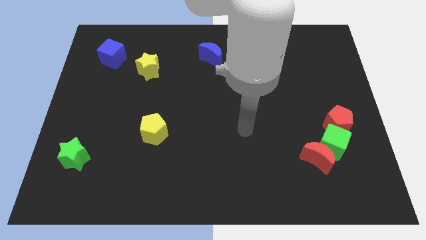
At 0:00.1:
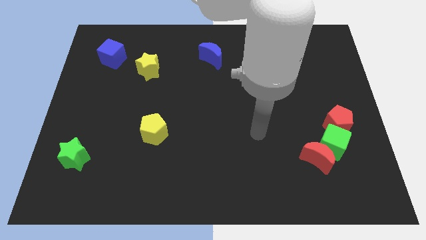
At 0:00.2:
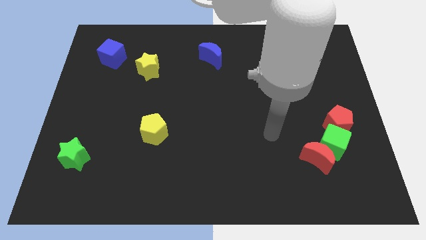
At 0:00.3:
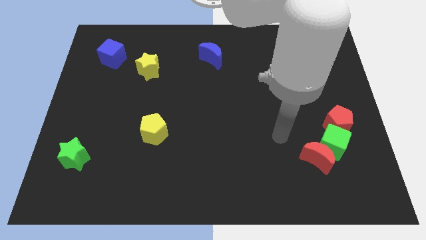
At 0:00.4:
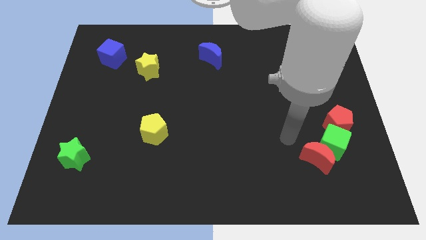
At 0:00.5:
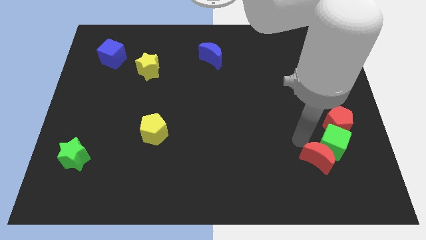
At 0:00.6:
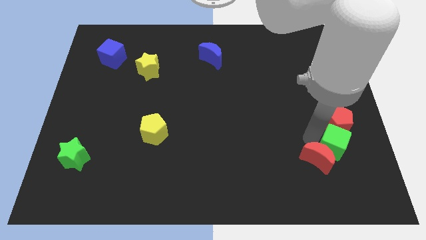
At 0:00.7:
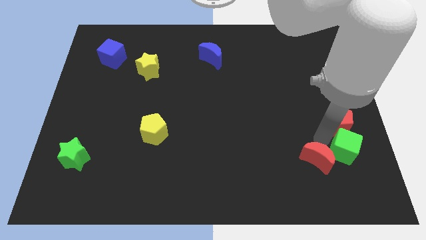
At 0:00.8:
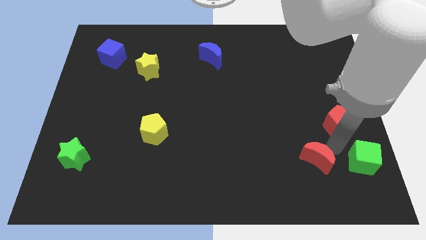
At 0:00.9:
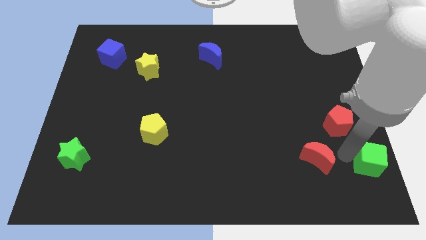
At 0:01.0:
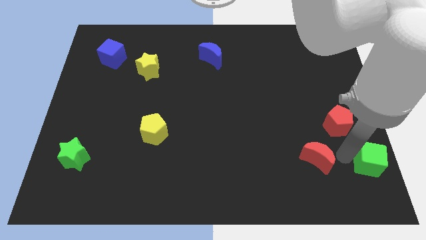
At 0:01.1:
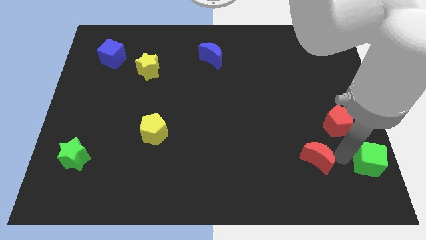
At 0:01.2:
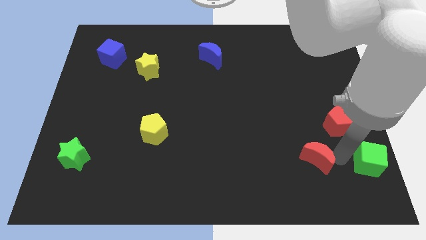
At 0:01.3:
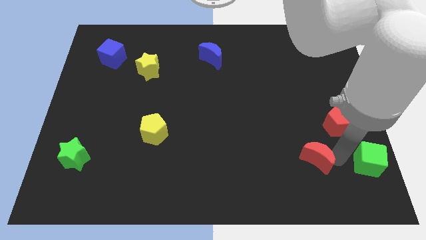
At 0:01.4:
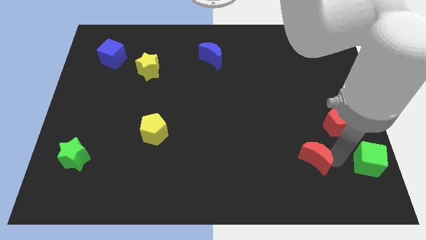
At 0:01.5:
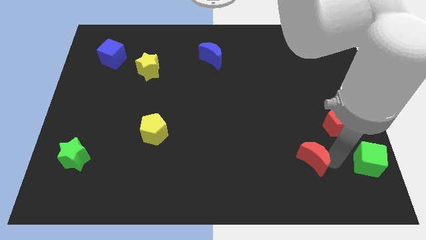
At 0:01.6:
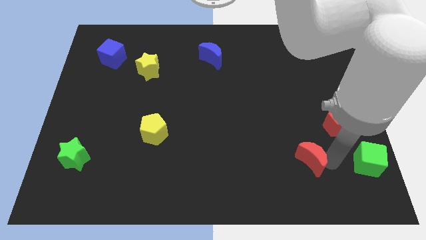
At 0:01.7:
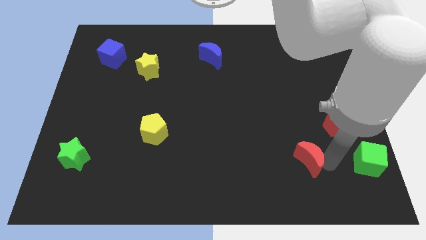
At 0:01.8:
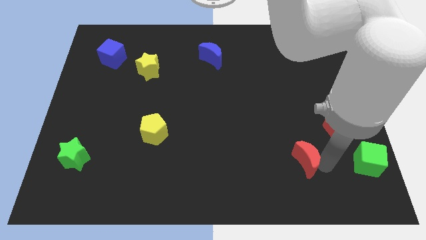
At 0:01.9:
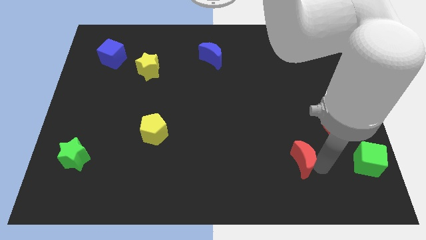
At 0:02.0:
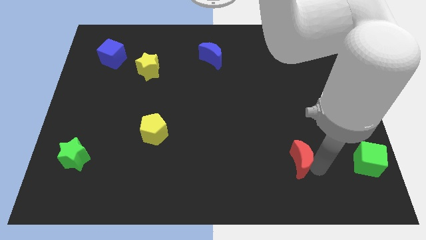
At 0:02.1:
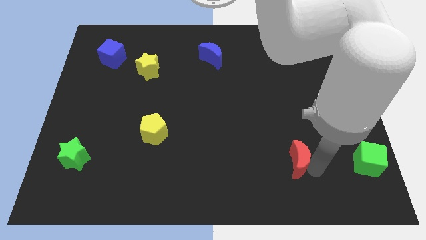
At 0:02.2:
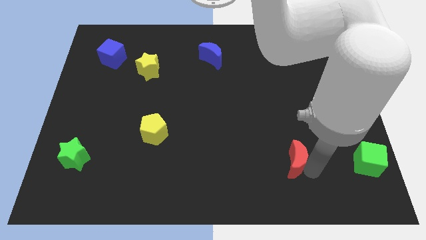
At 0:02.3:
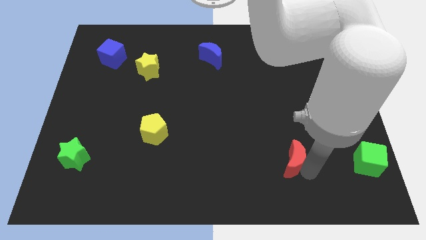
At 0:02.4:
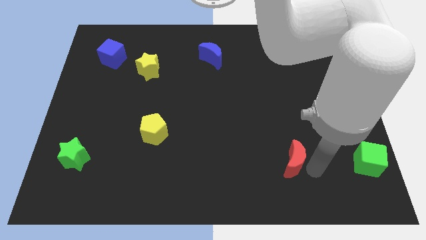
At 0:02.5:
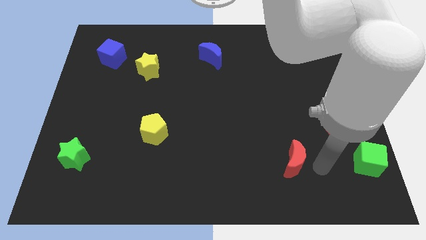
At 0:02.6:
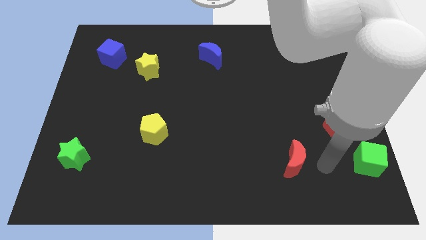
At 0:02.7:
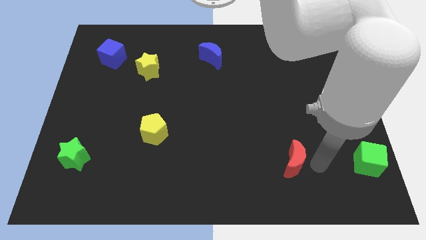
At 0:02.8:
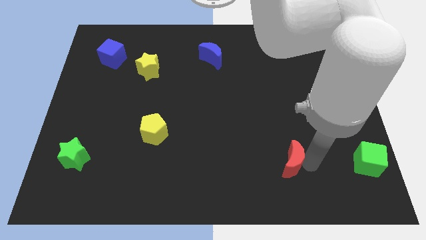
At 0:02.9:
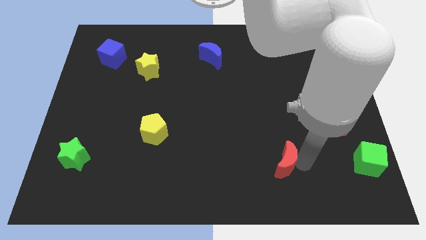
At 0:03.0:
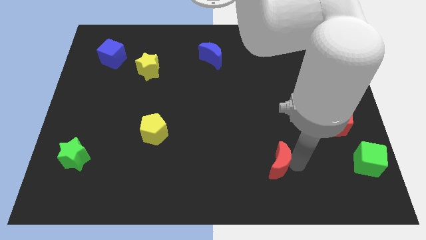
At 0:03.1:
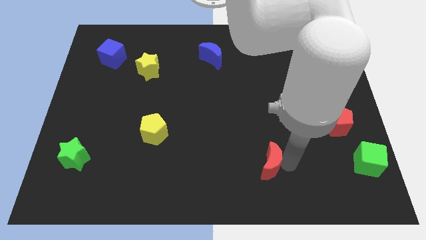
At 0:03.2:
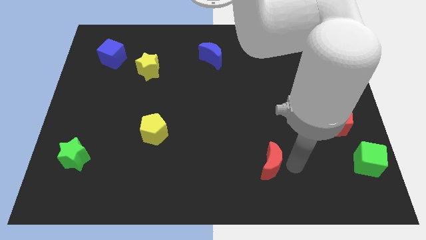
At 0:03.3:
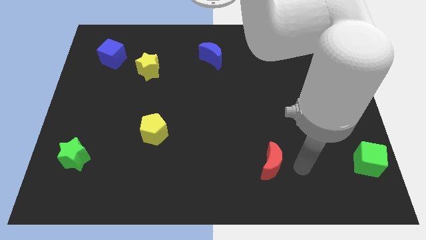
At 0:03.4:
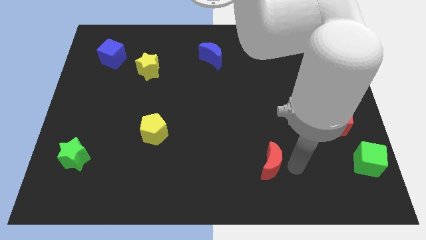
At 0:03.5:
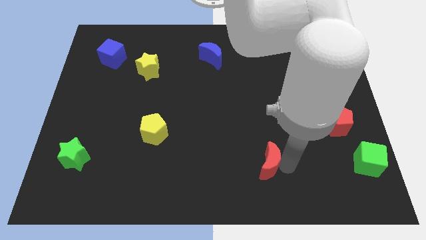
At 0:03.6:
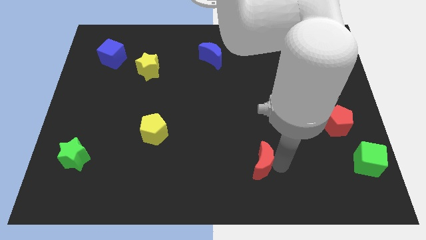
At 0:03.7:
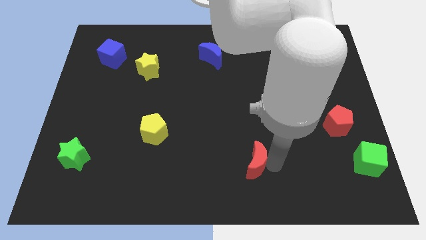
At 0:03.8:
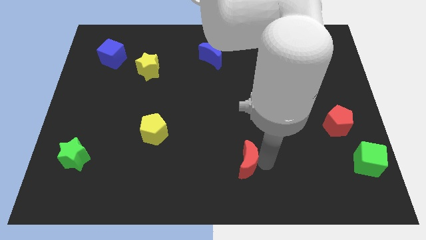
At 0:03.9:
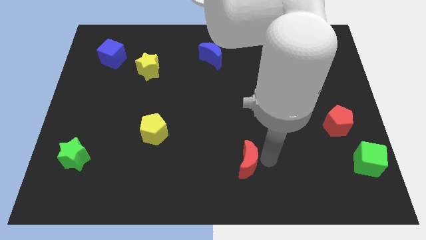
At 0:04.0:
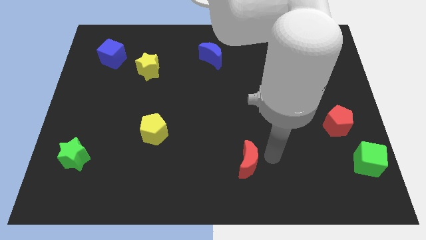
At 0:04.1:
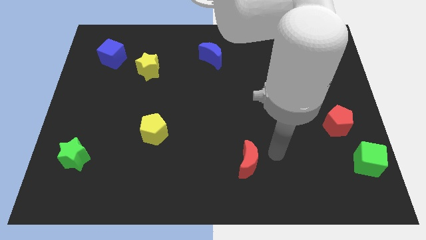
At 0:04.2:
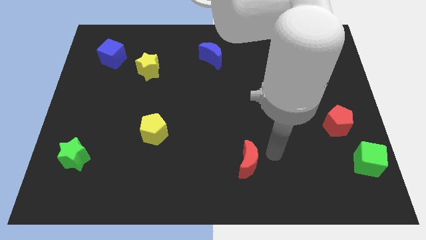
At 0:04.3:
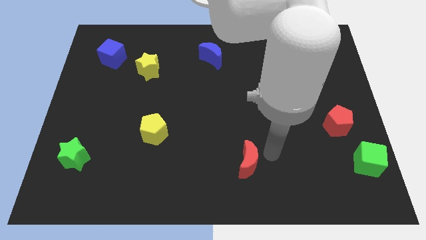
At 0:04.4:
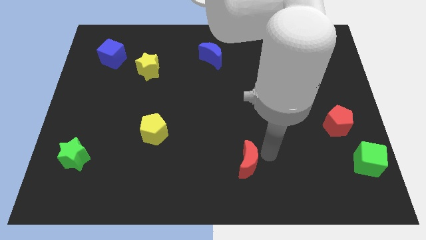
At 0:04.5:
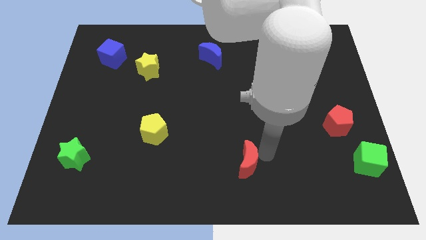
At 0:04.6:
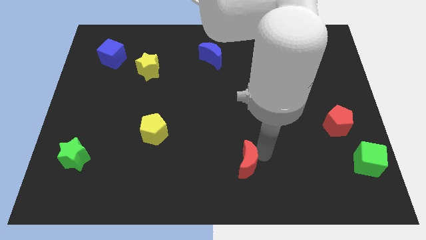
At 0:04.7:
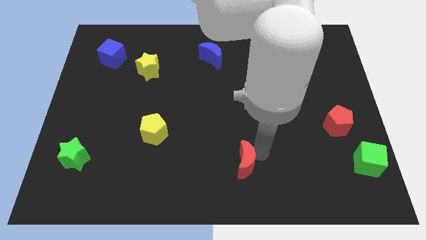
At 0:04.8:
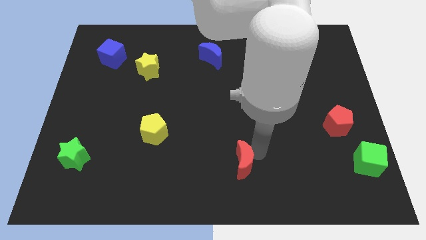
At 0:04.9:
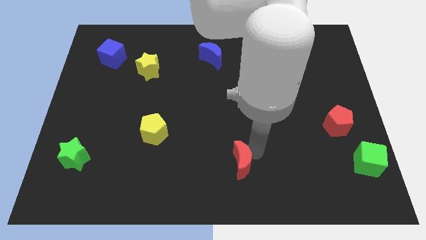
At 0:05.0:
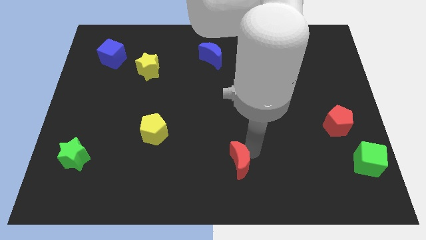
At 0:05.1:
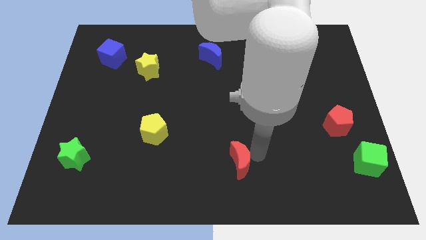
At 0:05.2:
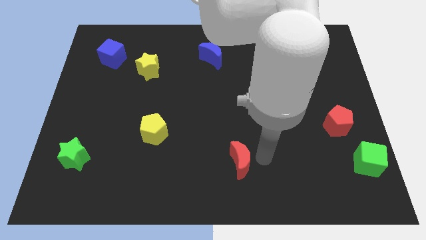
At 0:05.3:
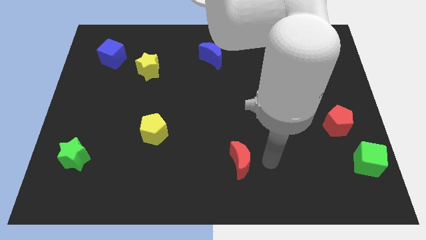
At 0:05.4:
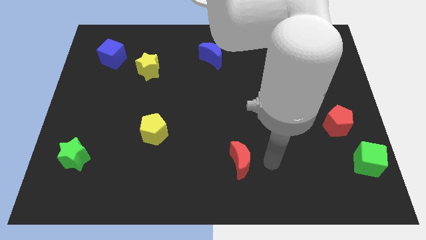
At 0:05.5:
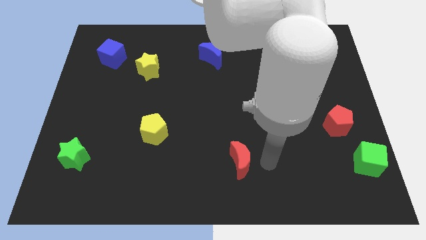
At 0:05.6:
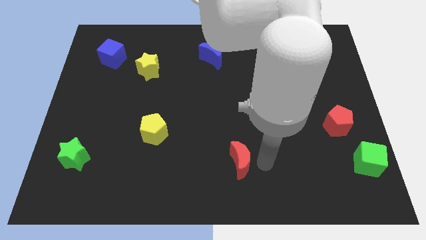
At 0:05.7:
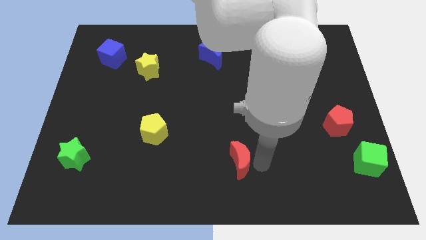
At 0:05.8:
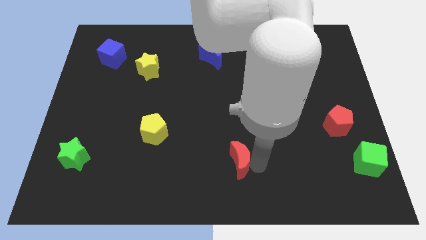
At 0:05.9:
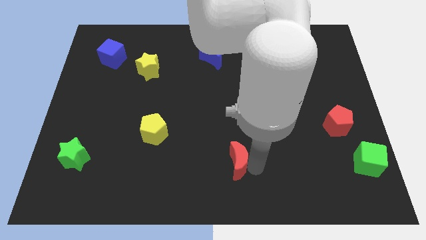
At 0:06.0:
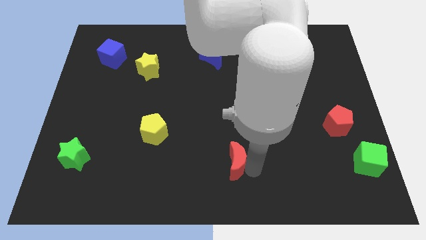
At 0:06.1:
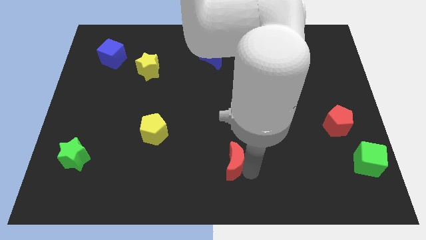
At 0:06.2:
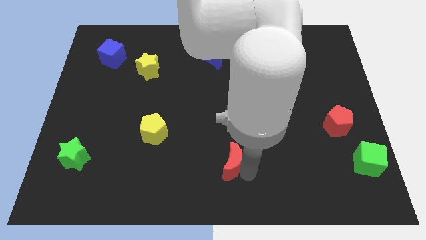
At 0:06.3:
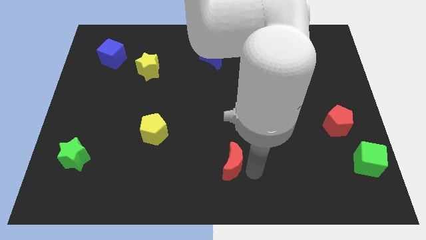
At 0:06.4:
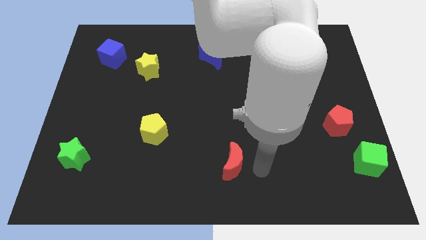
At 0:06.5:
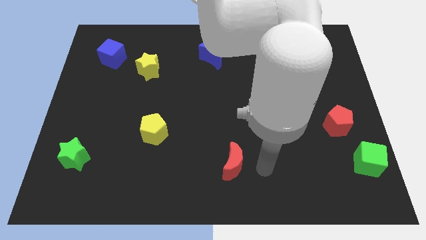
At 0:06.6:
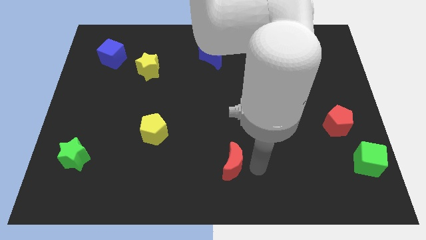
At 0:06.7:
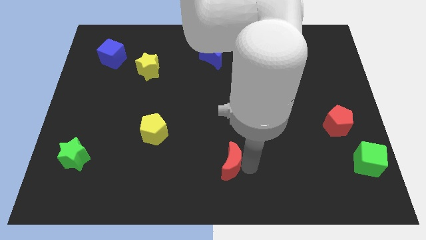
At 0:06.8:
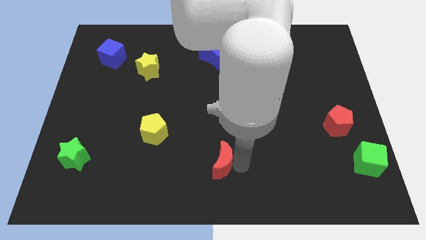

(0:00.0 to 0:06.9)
push the red moon left

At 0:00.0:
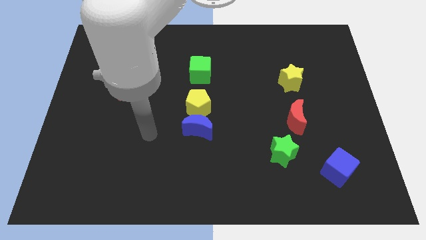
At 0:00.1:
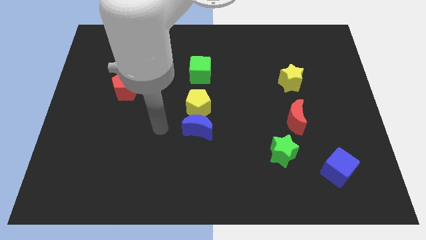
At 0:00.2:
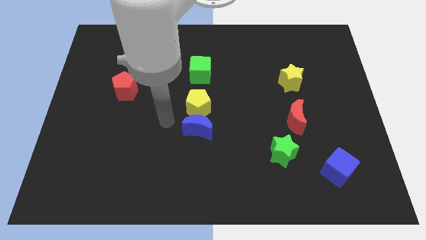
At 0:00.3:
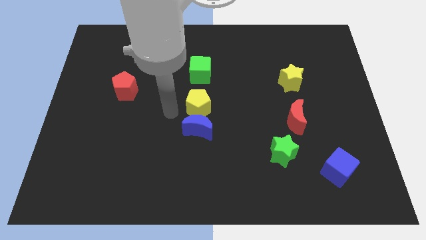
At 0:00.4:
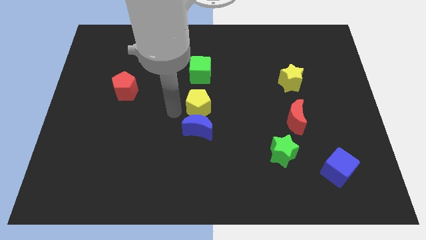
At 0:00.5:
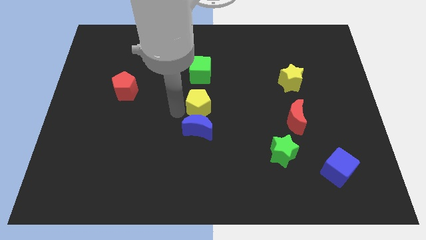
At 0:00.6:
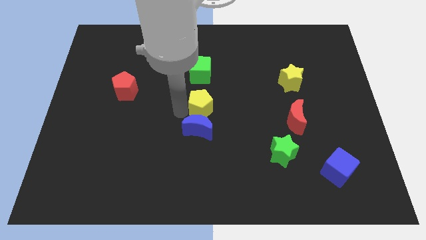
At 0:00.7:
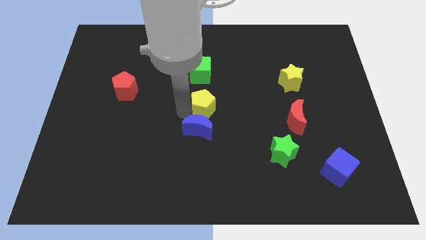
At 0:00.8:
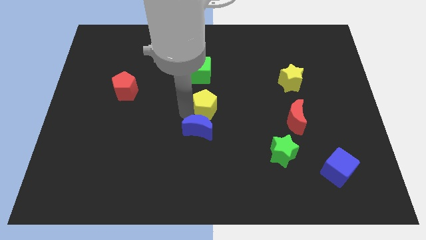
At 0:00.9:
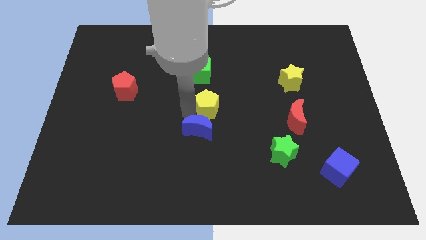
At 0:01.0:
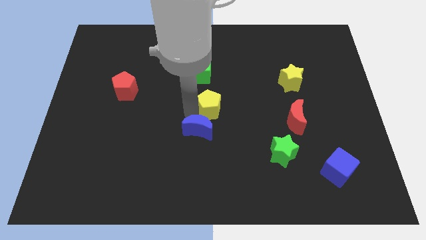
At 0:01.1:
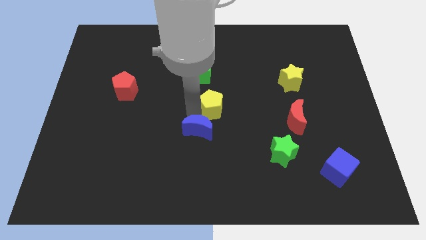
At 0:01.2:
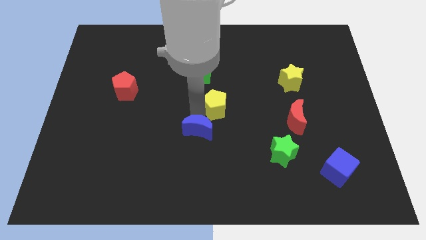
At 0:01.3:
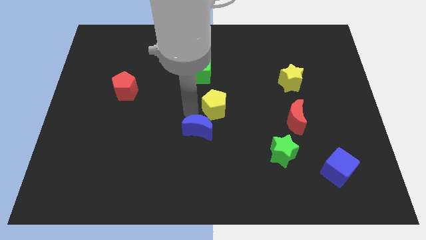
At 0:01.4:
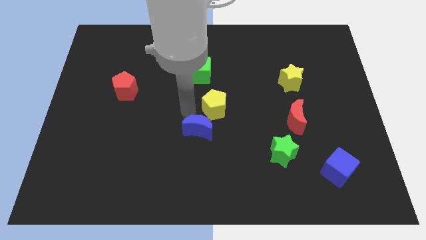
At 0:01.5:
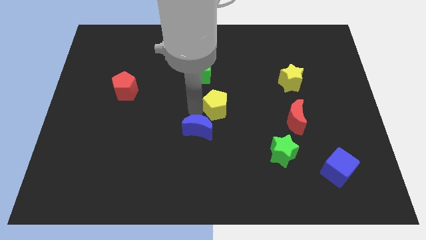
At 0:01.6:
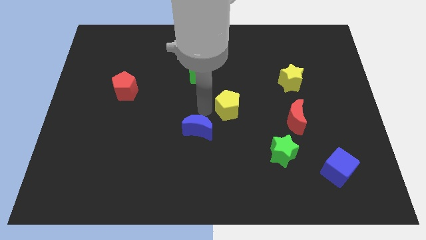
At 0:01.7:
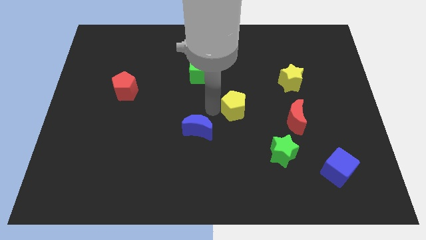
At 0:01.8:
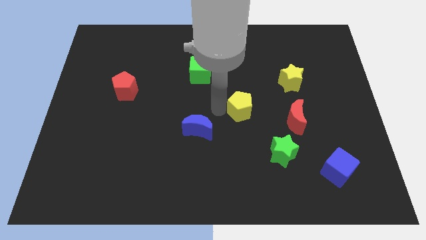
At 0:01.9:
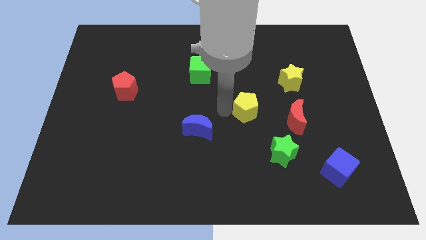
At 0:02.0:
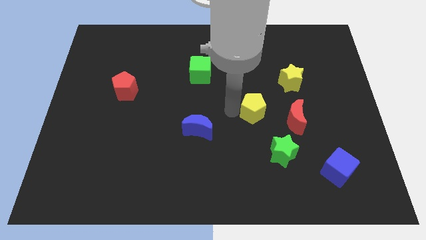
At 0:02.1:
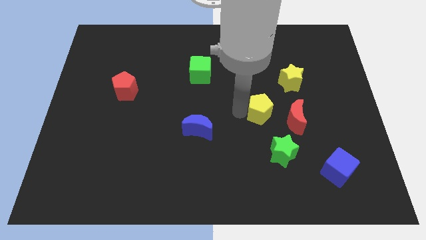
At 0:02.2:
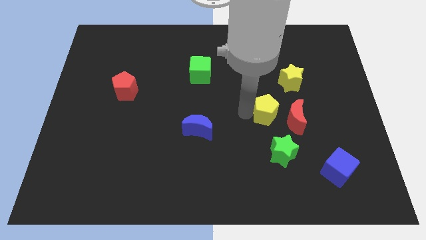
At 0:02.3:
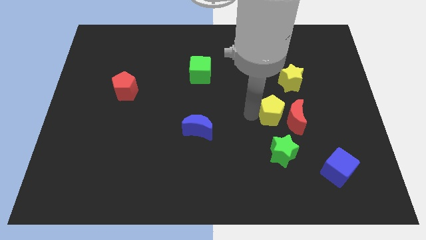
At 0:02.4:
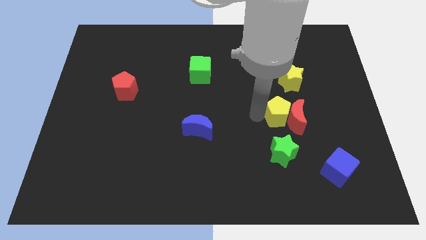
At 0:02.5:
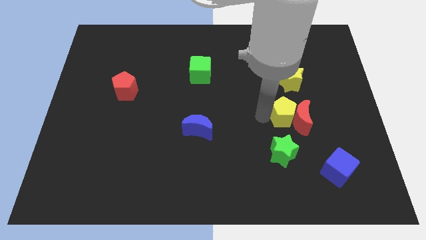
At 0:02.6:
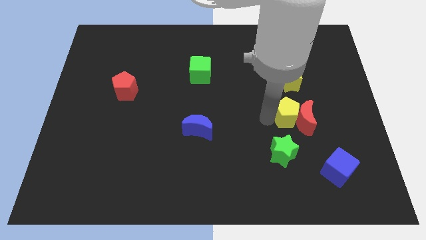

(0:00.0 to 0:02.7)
push the yellow pentagon to the right
